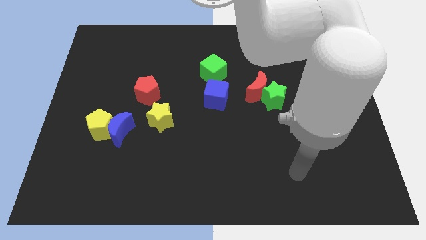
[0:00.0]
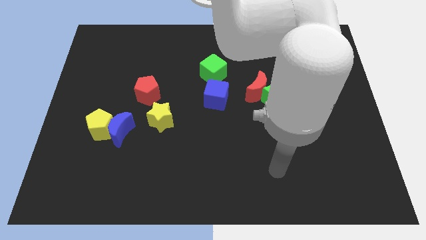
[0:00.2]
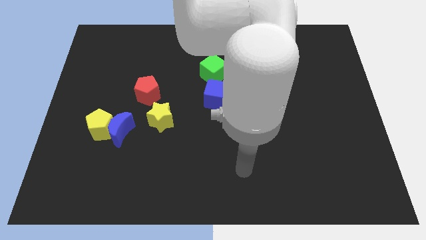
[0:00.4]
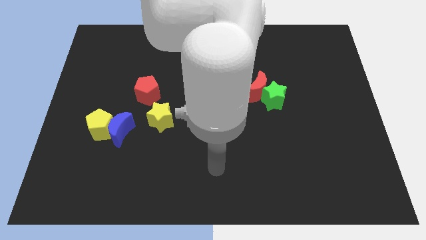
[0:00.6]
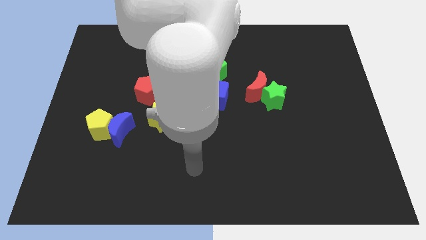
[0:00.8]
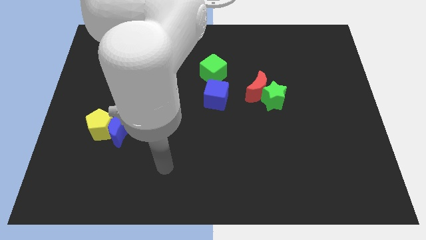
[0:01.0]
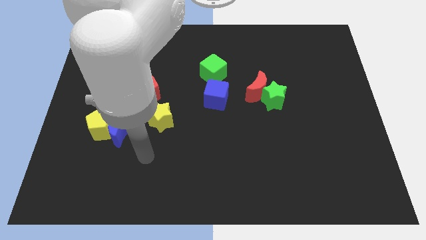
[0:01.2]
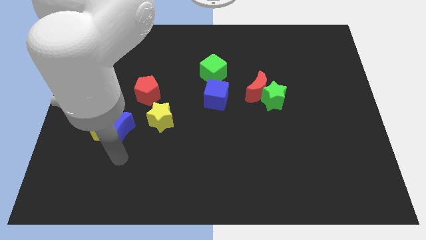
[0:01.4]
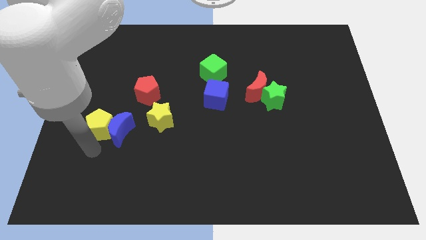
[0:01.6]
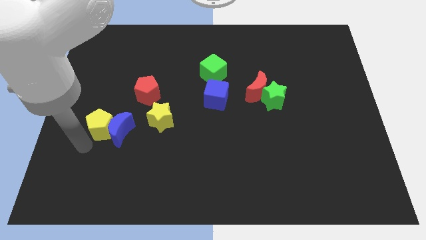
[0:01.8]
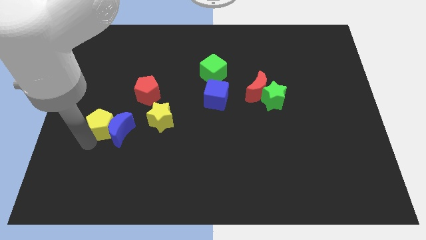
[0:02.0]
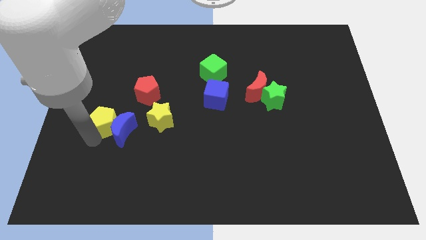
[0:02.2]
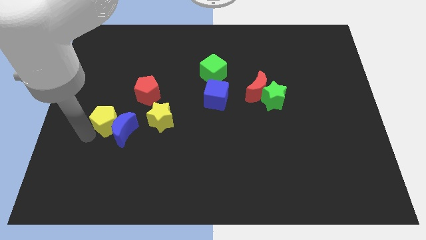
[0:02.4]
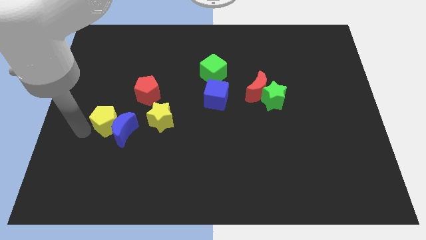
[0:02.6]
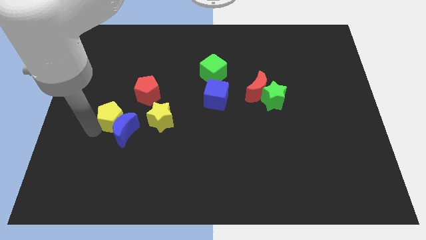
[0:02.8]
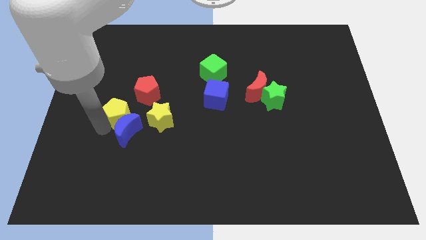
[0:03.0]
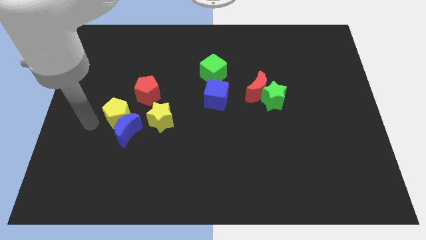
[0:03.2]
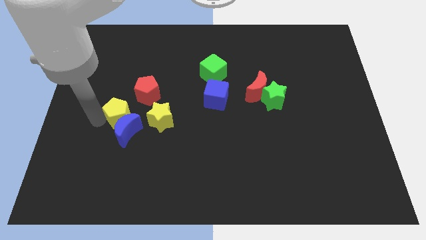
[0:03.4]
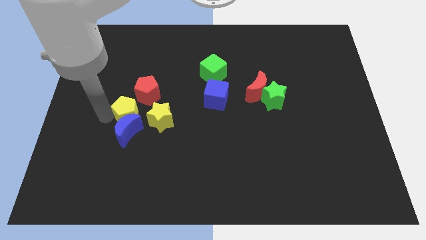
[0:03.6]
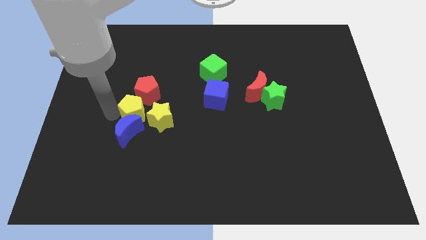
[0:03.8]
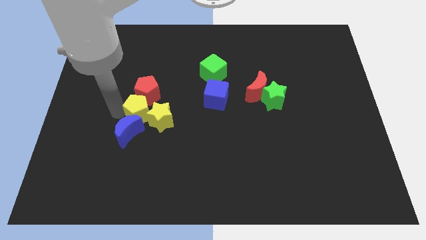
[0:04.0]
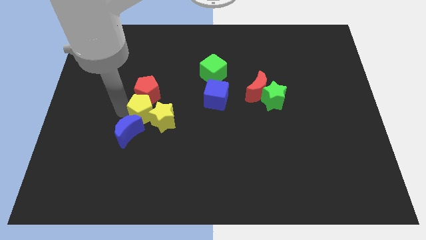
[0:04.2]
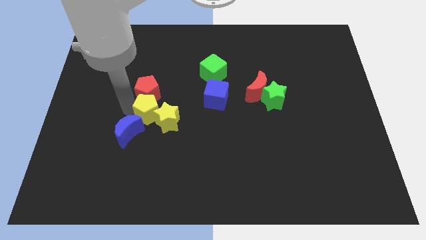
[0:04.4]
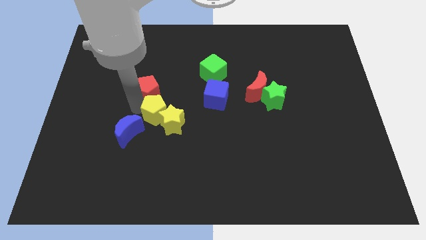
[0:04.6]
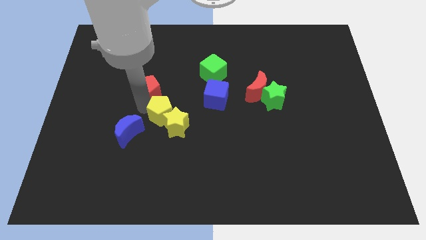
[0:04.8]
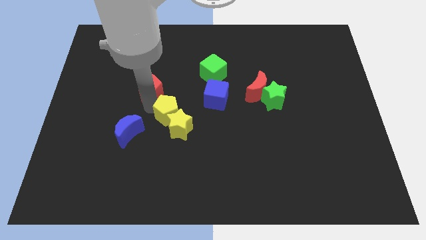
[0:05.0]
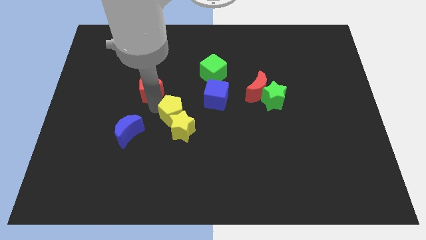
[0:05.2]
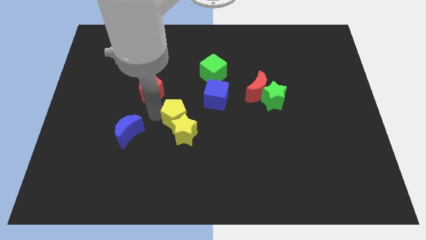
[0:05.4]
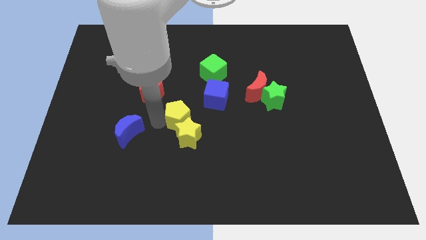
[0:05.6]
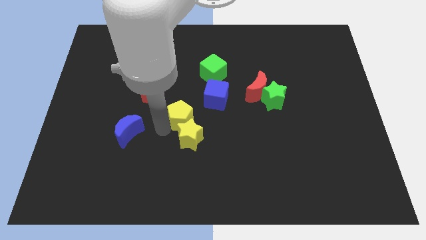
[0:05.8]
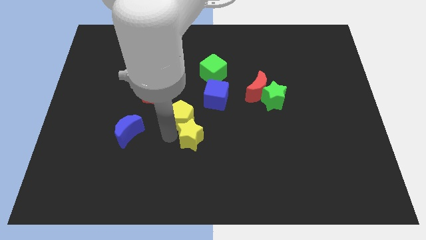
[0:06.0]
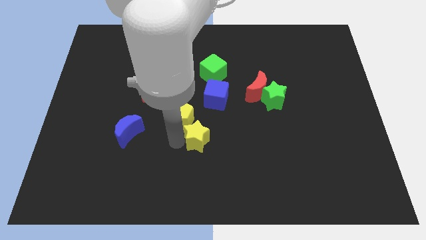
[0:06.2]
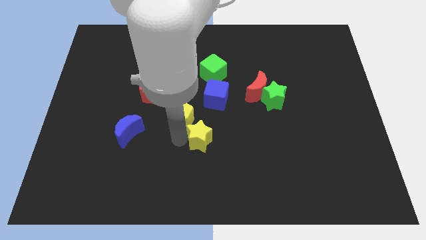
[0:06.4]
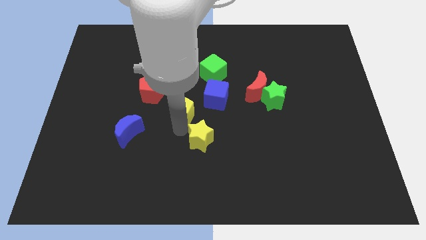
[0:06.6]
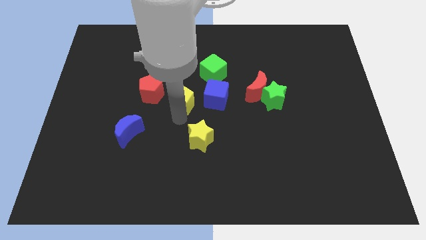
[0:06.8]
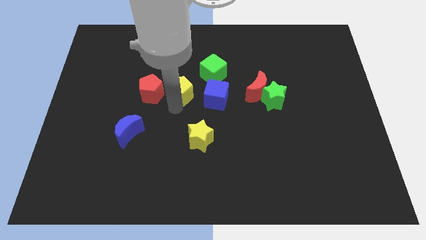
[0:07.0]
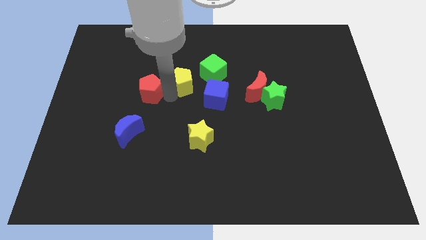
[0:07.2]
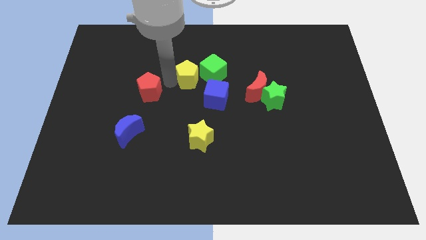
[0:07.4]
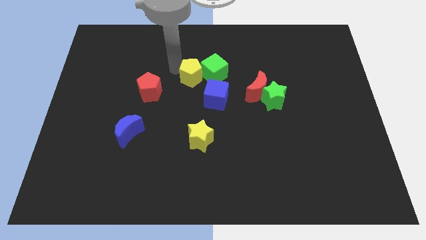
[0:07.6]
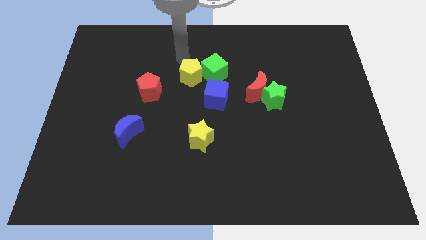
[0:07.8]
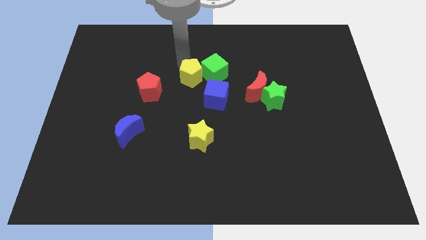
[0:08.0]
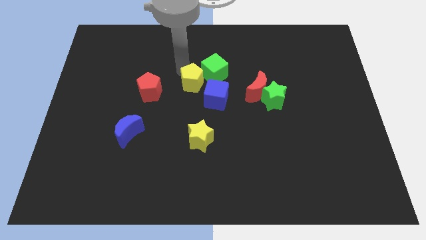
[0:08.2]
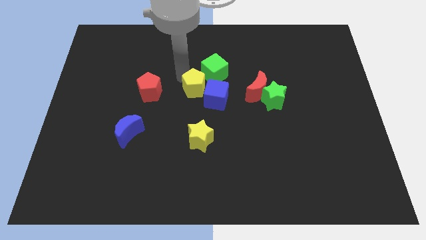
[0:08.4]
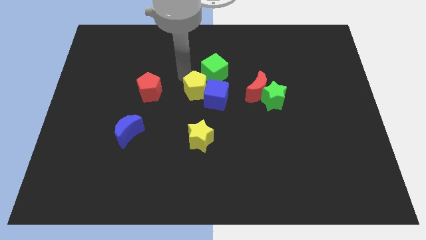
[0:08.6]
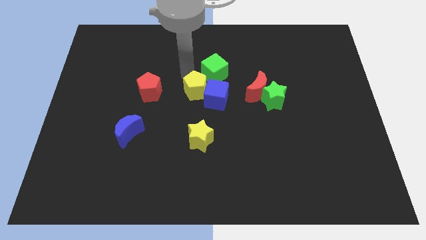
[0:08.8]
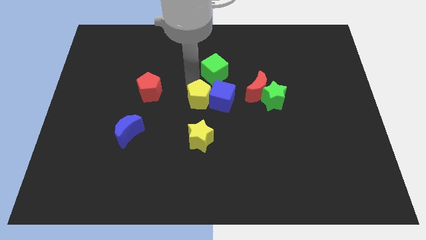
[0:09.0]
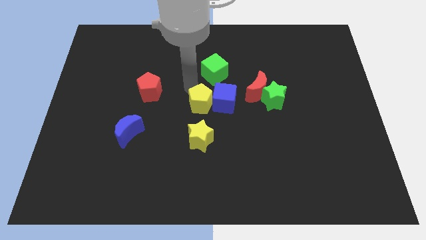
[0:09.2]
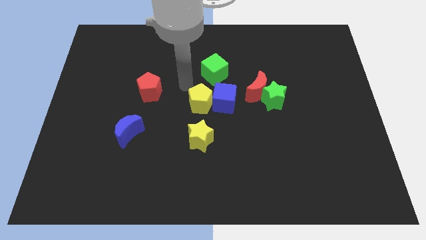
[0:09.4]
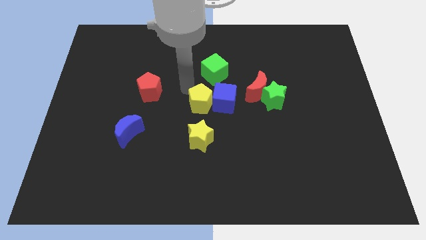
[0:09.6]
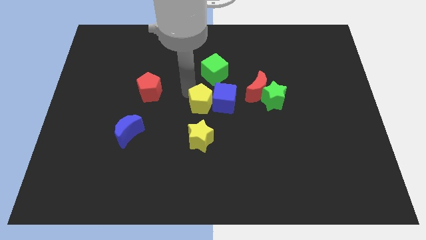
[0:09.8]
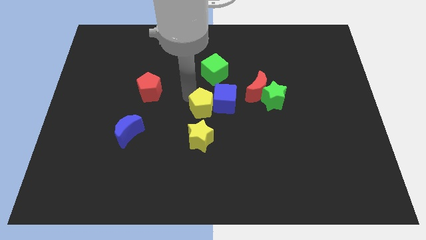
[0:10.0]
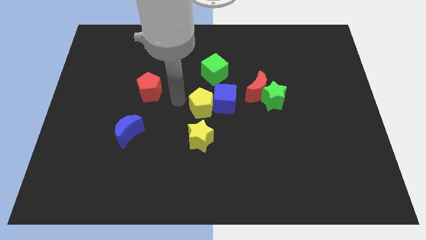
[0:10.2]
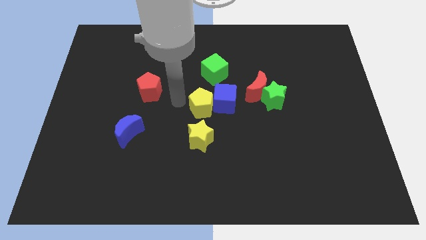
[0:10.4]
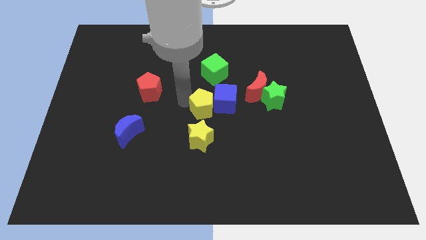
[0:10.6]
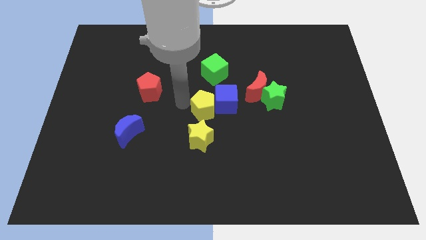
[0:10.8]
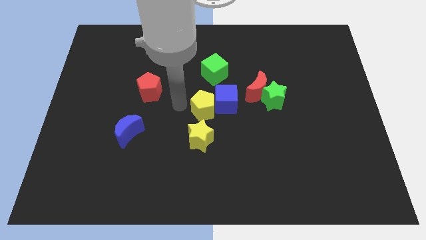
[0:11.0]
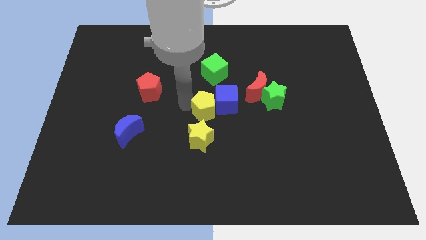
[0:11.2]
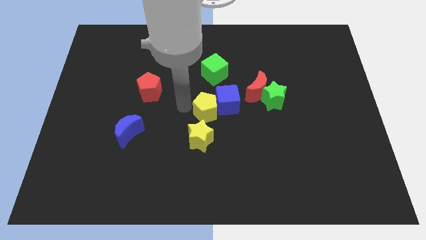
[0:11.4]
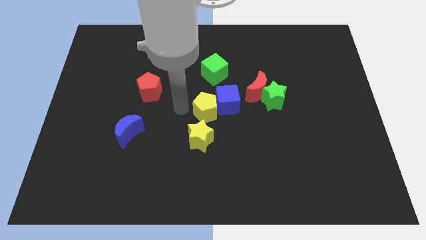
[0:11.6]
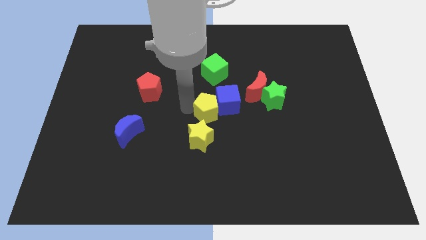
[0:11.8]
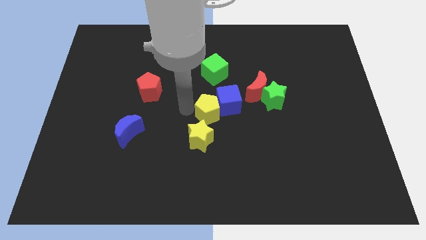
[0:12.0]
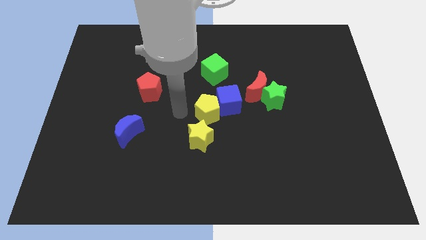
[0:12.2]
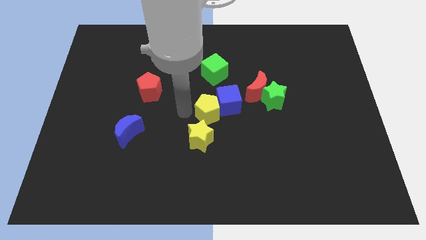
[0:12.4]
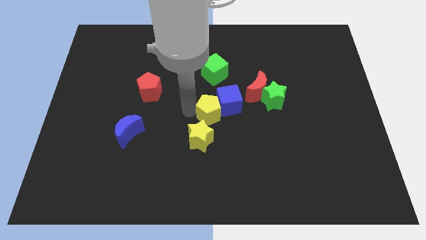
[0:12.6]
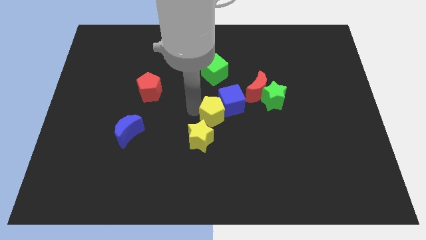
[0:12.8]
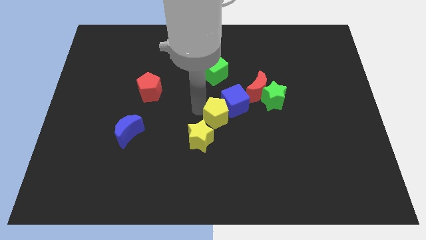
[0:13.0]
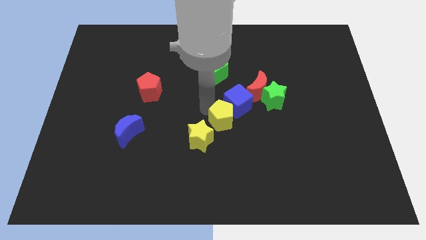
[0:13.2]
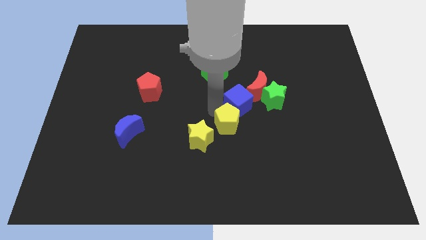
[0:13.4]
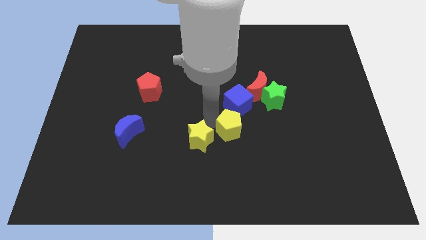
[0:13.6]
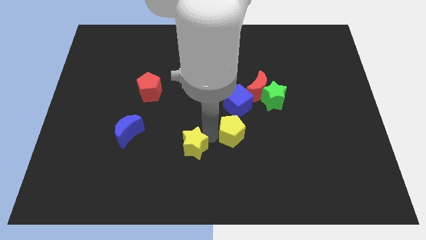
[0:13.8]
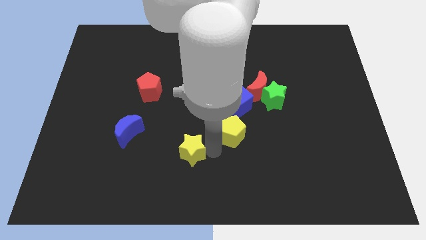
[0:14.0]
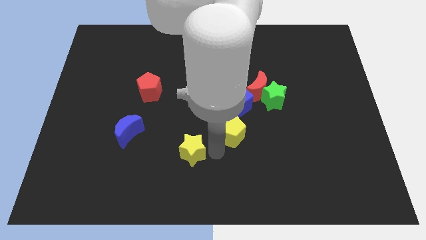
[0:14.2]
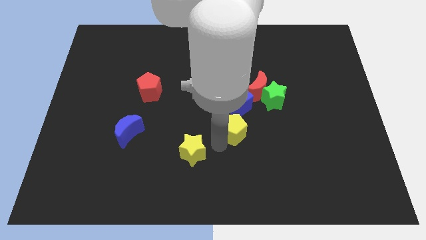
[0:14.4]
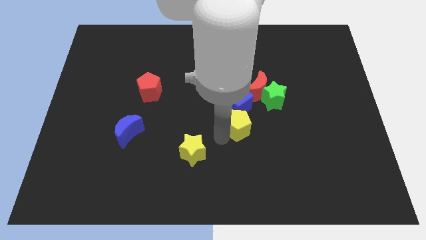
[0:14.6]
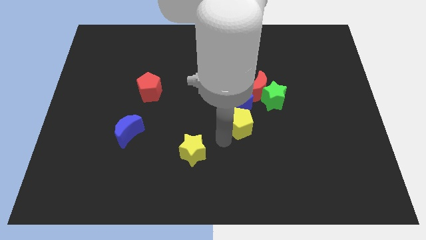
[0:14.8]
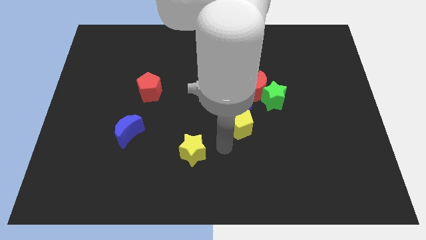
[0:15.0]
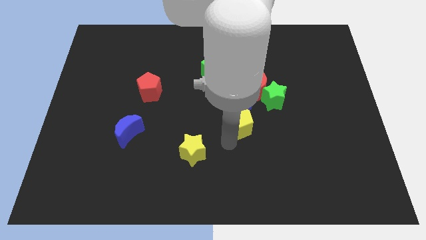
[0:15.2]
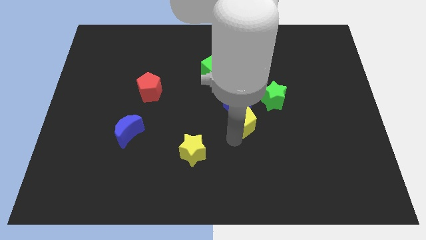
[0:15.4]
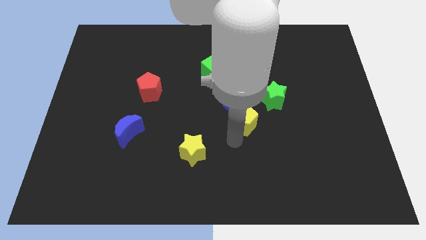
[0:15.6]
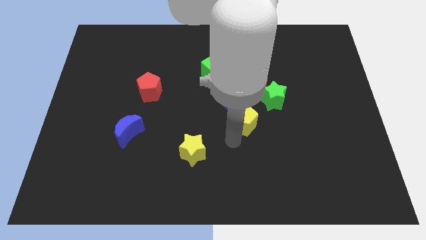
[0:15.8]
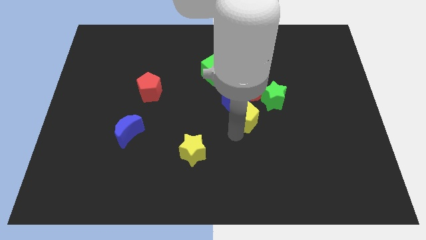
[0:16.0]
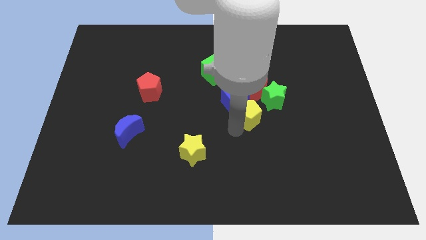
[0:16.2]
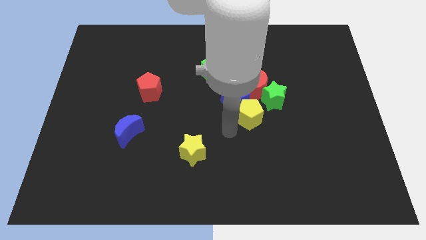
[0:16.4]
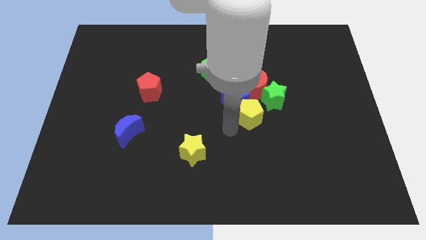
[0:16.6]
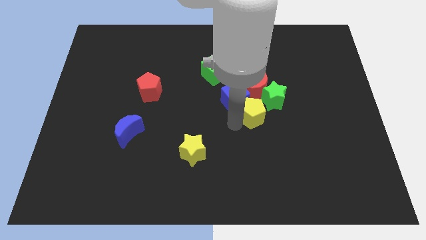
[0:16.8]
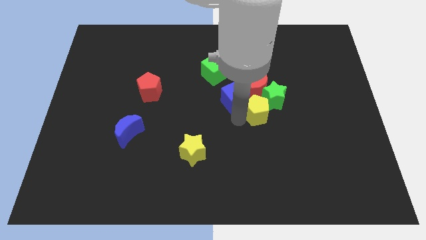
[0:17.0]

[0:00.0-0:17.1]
put the yellow pentagon to the green star
